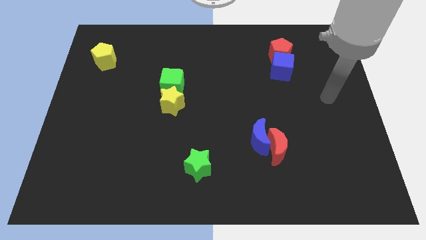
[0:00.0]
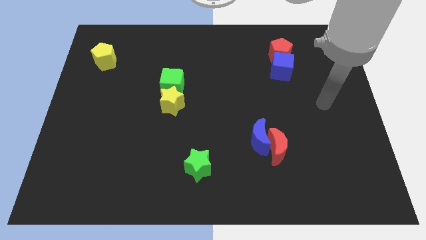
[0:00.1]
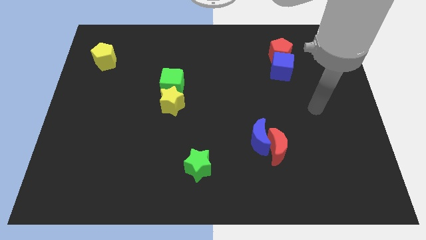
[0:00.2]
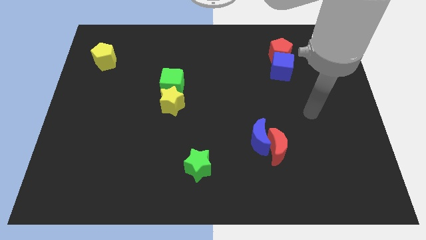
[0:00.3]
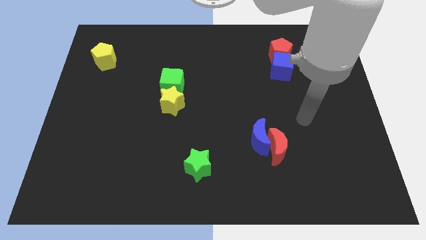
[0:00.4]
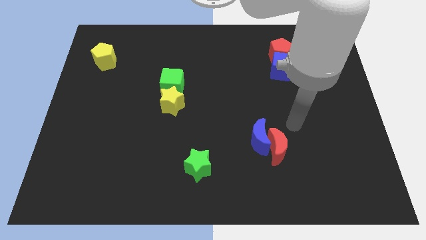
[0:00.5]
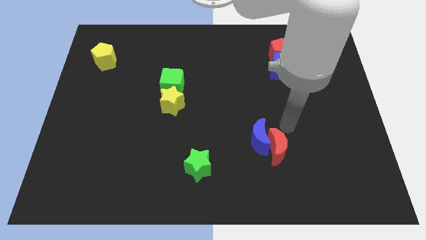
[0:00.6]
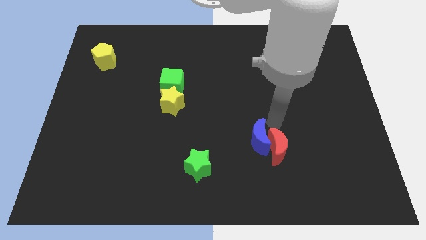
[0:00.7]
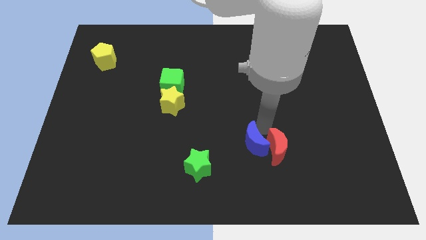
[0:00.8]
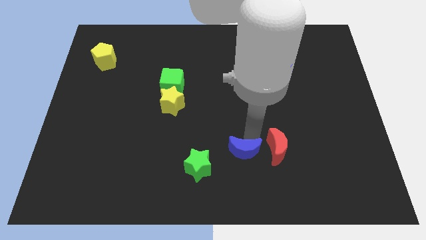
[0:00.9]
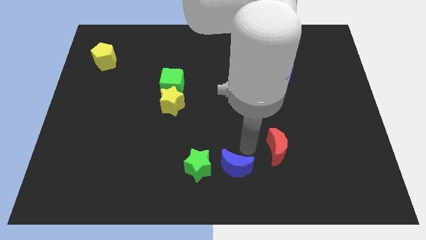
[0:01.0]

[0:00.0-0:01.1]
pull the red moon apart from the blue moon

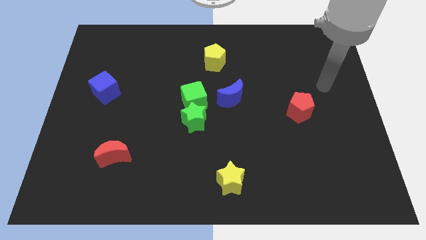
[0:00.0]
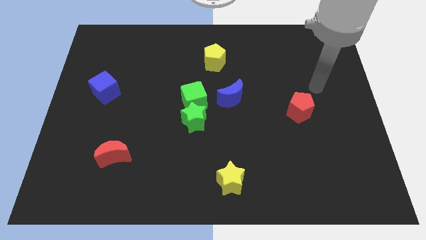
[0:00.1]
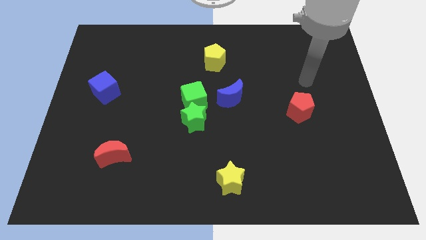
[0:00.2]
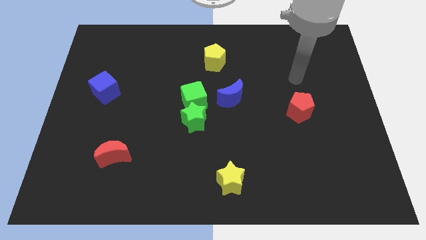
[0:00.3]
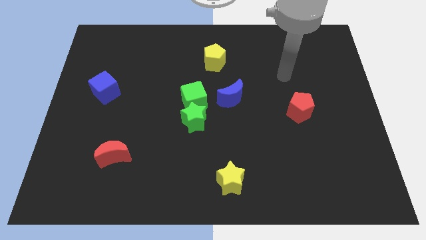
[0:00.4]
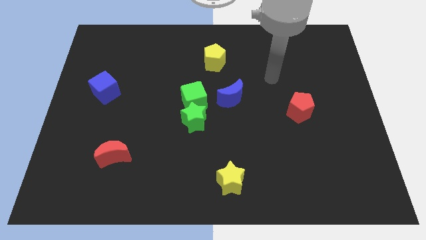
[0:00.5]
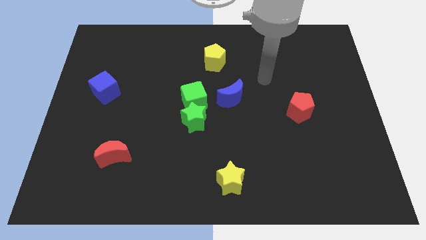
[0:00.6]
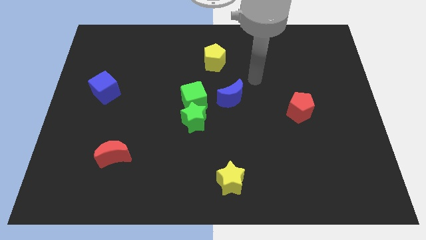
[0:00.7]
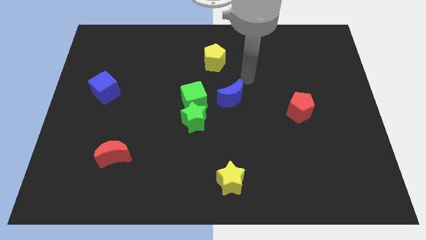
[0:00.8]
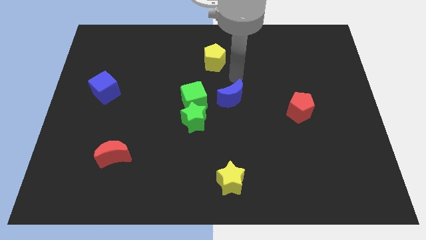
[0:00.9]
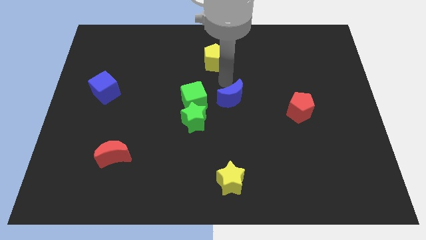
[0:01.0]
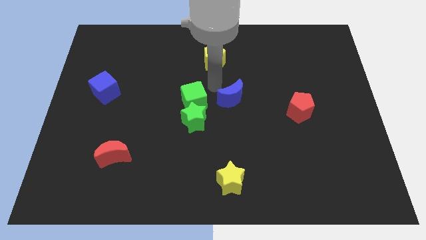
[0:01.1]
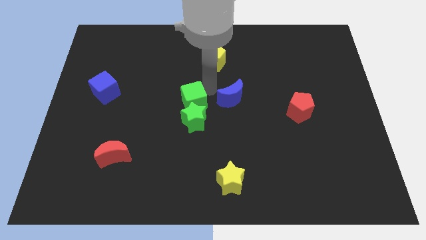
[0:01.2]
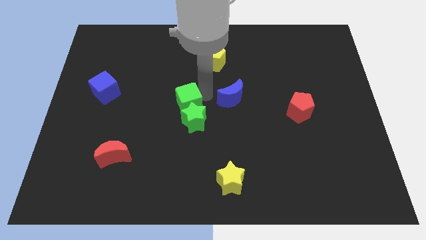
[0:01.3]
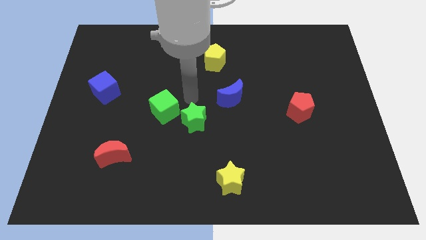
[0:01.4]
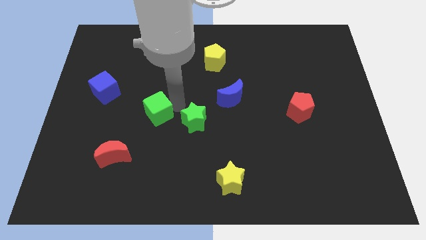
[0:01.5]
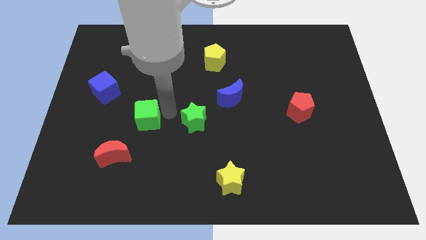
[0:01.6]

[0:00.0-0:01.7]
pull the green star apart from the green cube

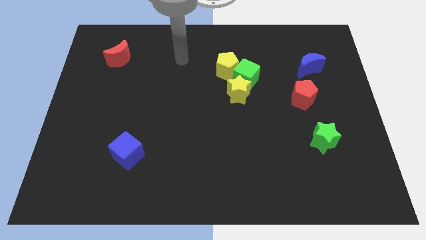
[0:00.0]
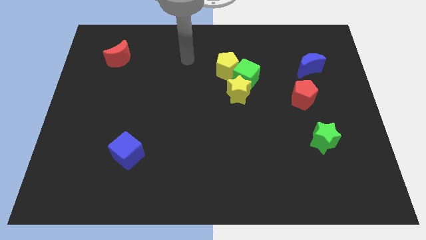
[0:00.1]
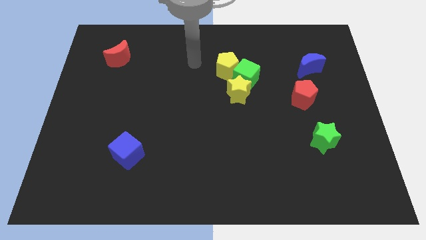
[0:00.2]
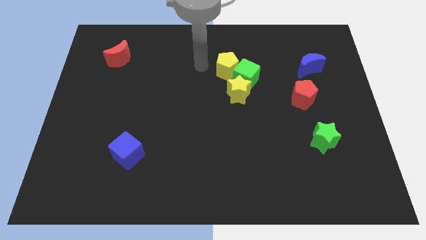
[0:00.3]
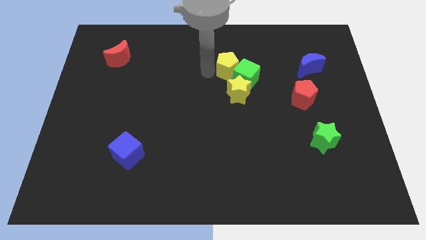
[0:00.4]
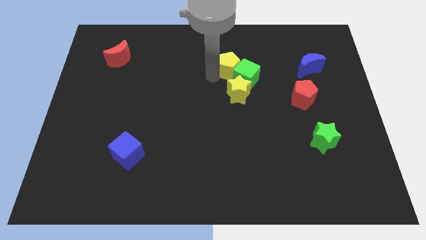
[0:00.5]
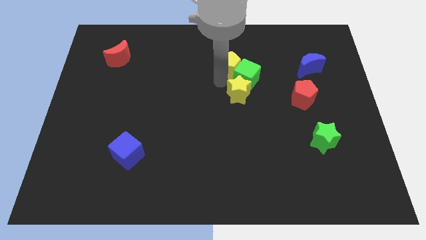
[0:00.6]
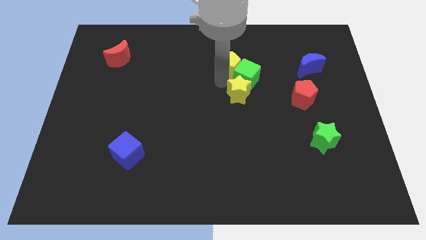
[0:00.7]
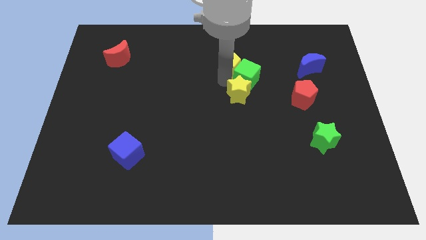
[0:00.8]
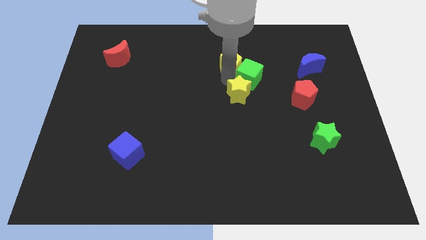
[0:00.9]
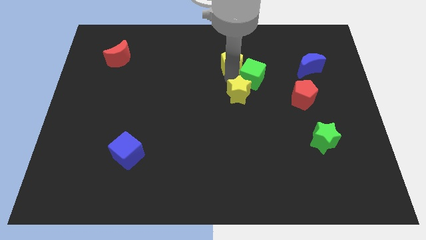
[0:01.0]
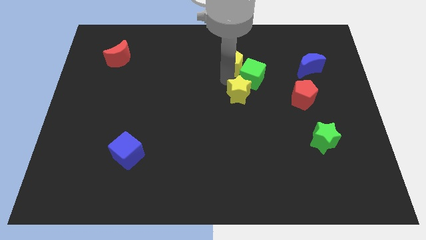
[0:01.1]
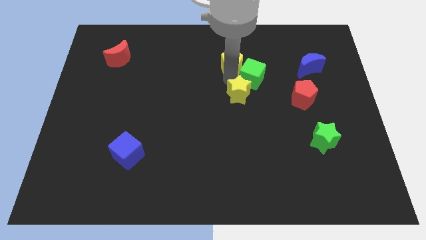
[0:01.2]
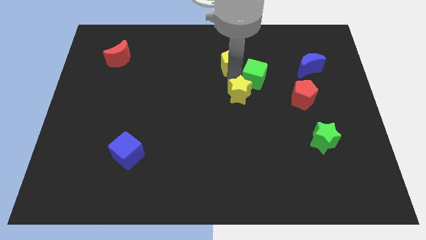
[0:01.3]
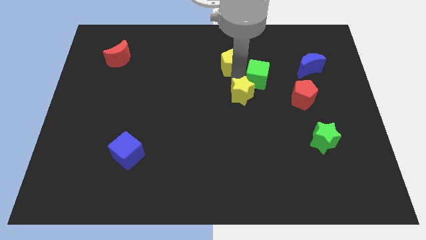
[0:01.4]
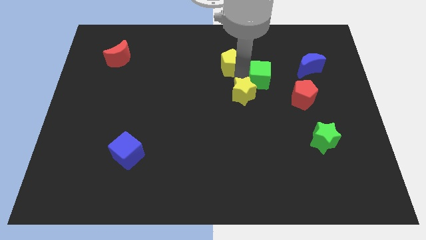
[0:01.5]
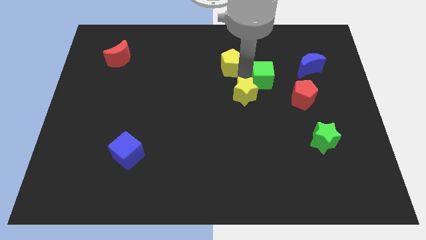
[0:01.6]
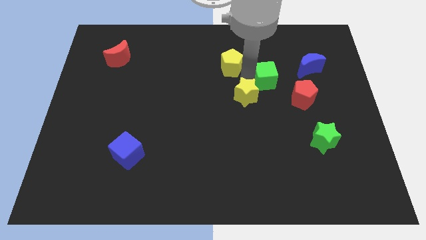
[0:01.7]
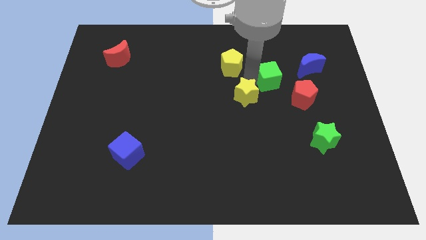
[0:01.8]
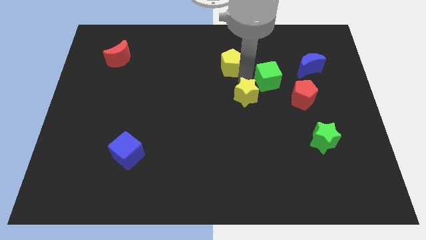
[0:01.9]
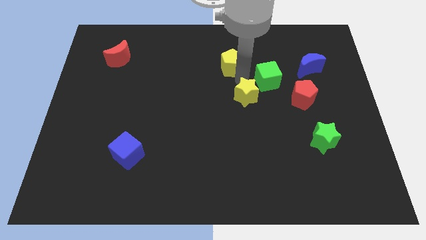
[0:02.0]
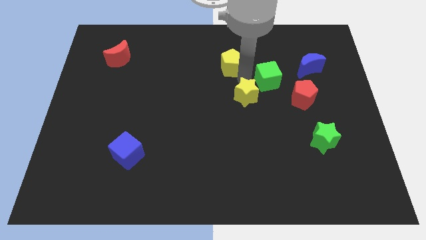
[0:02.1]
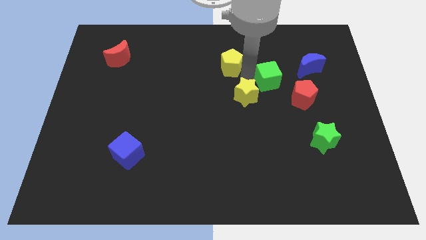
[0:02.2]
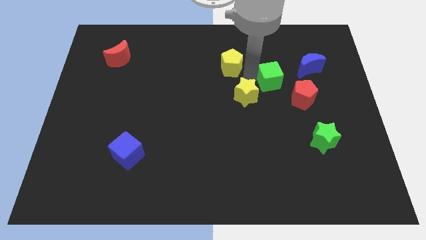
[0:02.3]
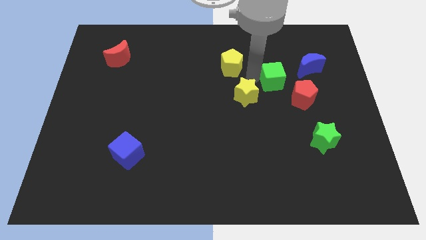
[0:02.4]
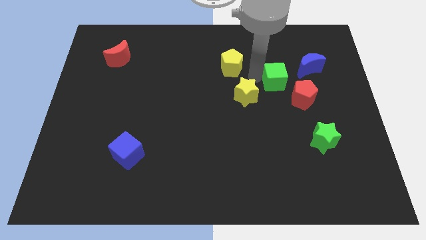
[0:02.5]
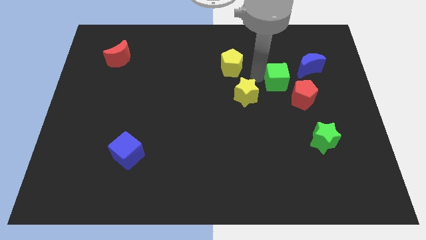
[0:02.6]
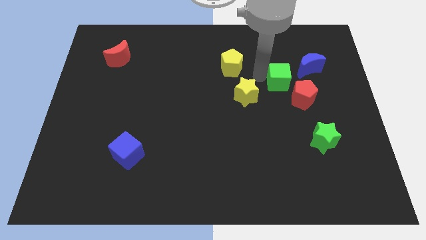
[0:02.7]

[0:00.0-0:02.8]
move the green cube away from the yellow star and yellow pentagon

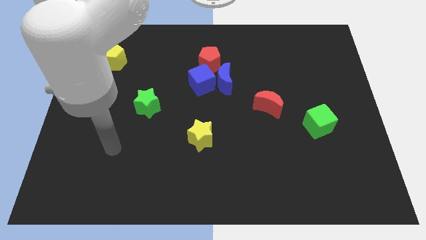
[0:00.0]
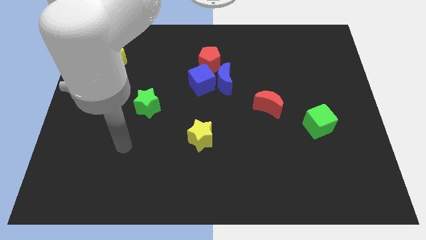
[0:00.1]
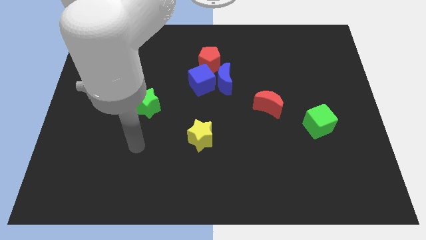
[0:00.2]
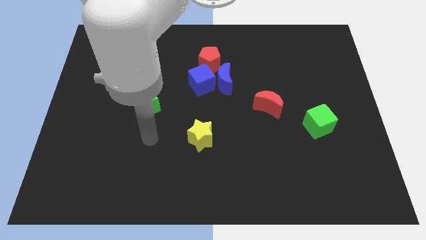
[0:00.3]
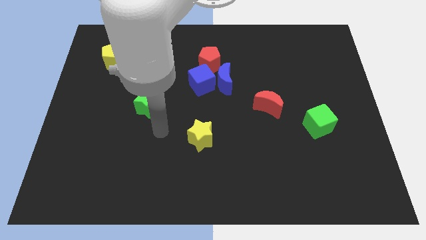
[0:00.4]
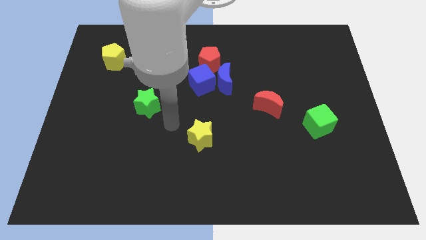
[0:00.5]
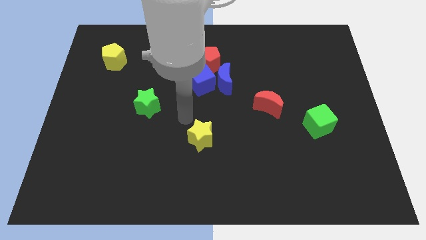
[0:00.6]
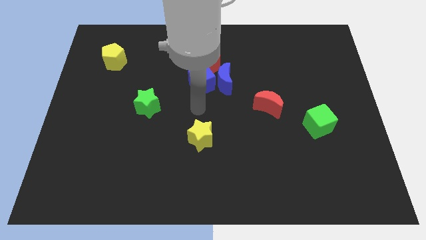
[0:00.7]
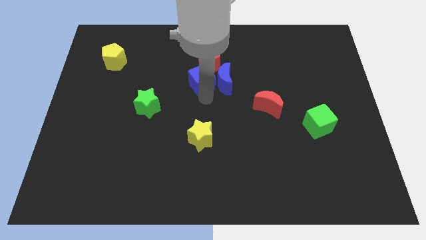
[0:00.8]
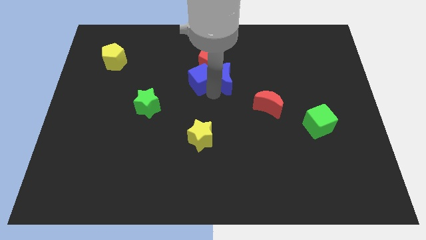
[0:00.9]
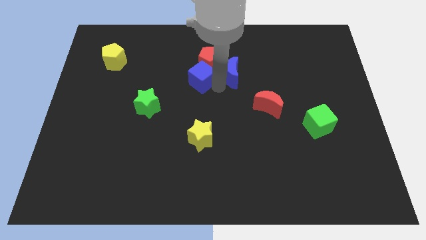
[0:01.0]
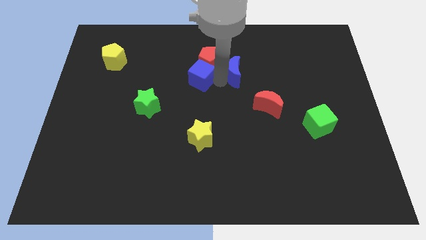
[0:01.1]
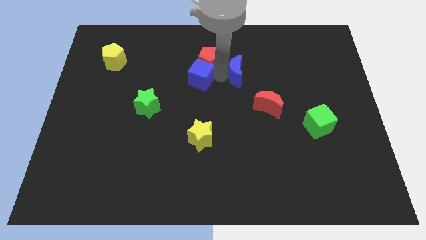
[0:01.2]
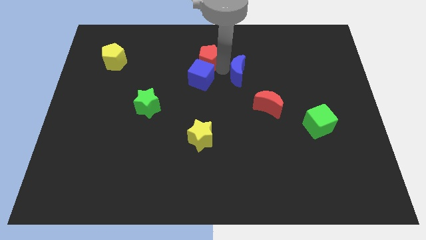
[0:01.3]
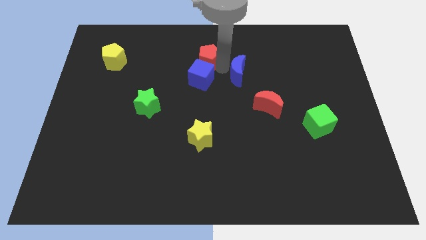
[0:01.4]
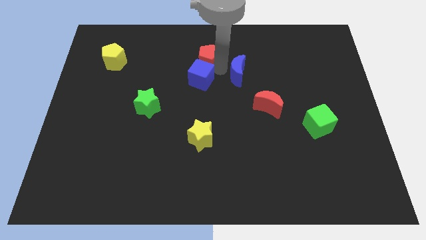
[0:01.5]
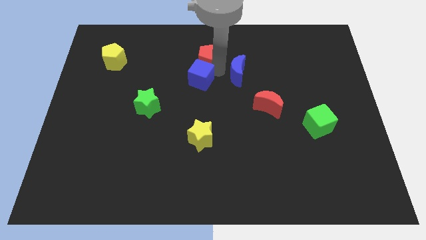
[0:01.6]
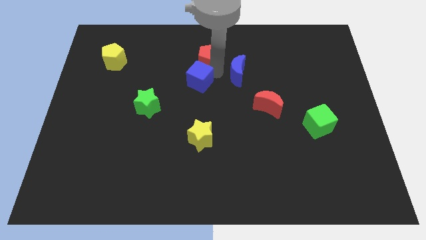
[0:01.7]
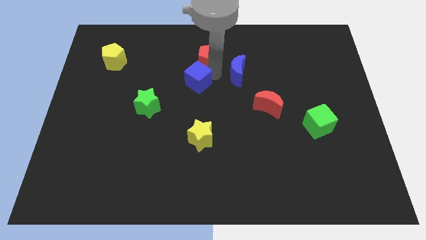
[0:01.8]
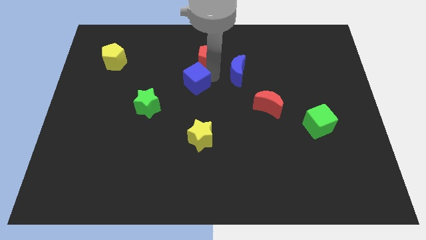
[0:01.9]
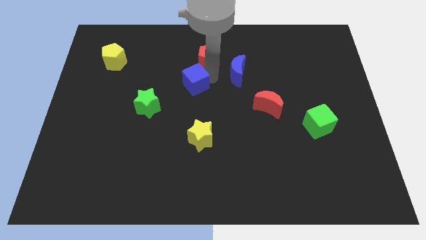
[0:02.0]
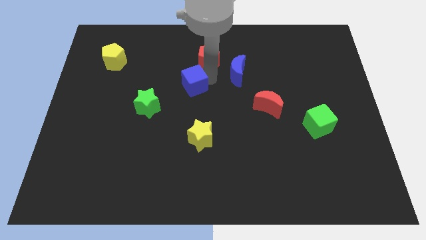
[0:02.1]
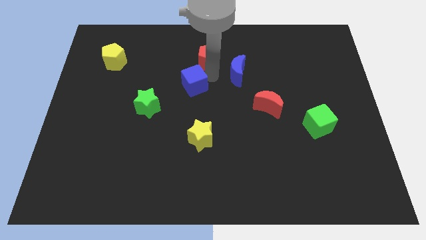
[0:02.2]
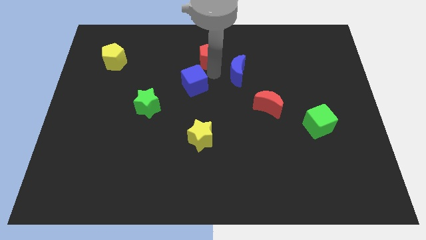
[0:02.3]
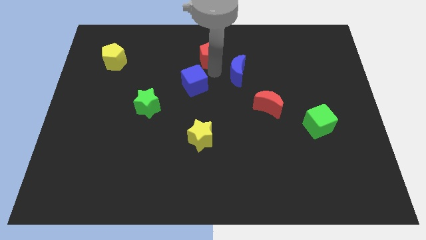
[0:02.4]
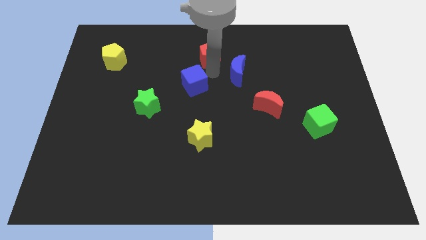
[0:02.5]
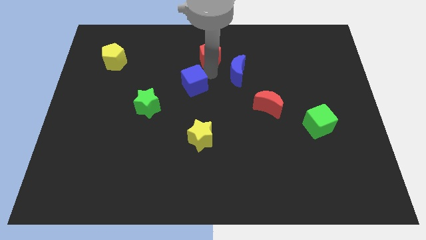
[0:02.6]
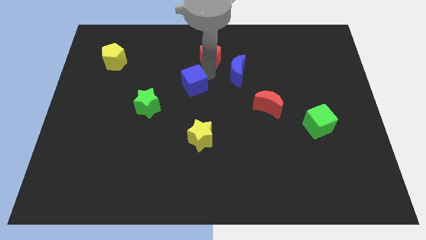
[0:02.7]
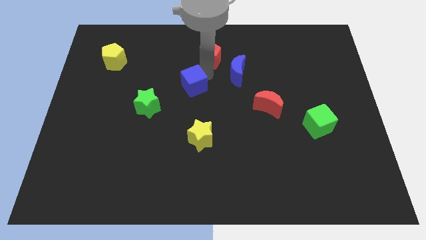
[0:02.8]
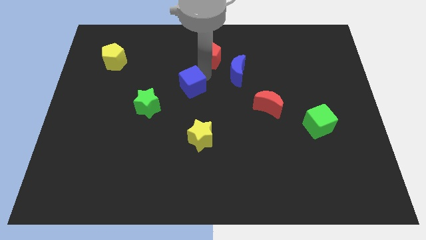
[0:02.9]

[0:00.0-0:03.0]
separate the blue cube from the blue moon and red pentagon

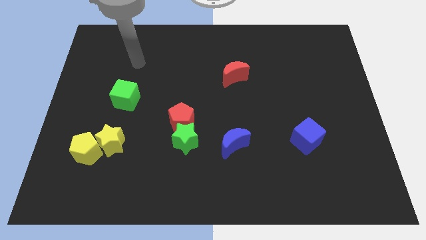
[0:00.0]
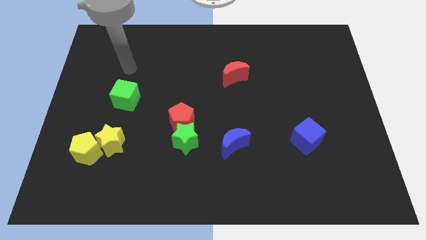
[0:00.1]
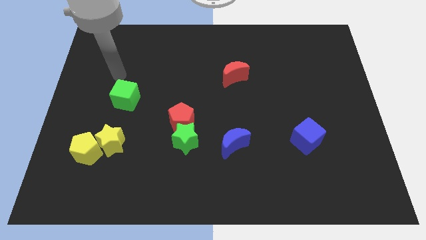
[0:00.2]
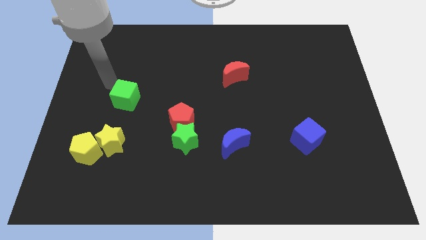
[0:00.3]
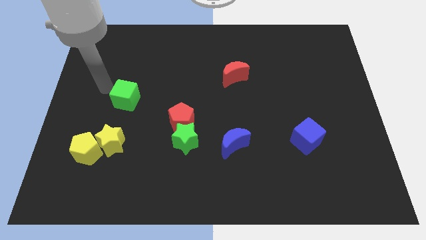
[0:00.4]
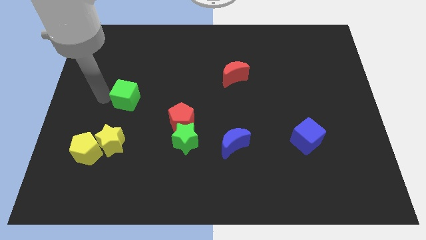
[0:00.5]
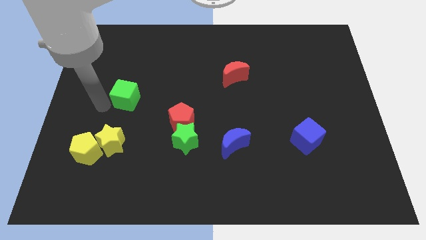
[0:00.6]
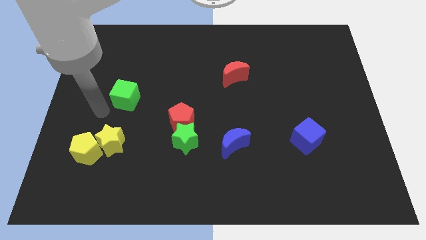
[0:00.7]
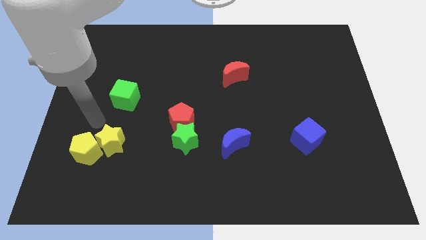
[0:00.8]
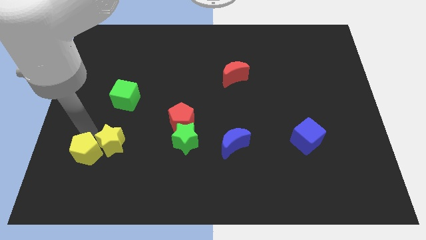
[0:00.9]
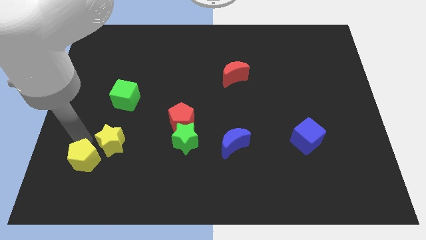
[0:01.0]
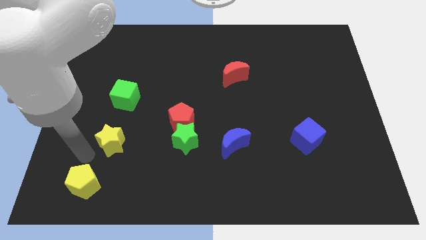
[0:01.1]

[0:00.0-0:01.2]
separate the yellow star from the yellow pentagon
